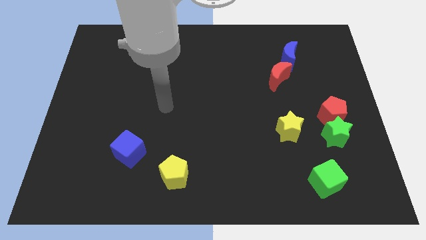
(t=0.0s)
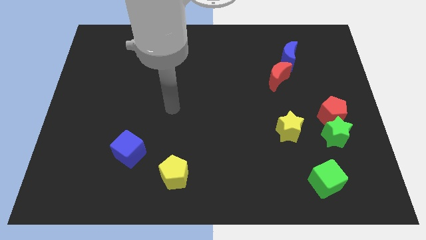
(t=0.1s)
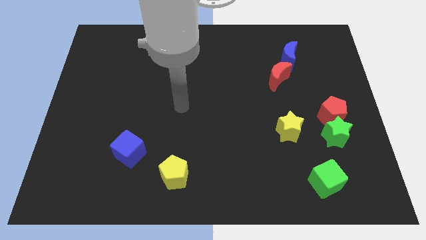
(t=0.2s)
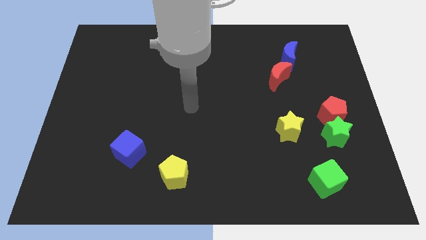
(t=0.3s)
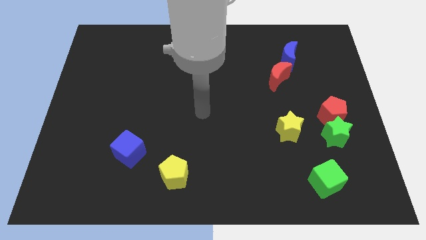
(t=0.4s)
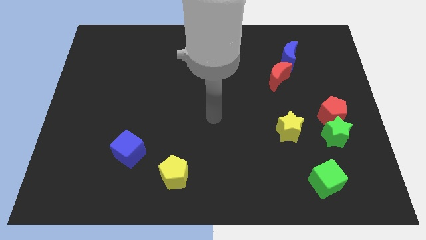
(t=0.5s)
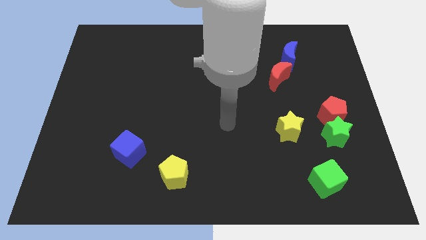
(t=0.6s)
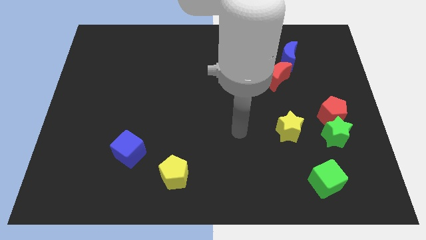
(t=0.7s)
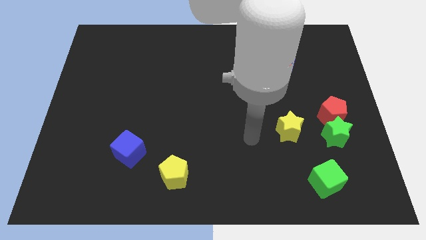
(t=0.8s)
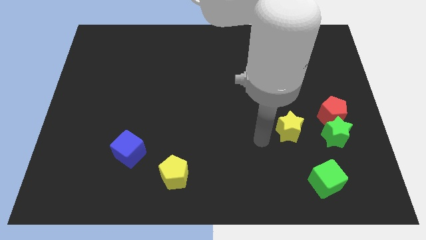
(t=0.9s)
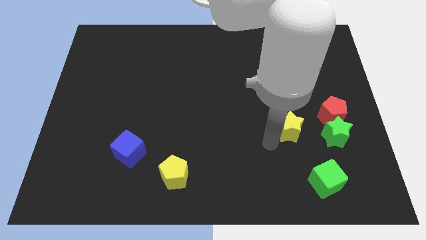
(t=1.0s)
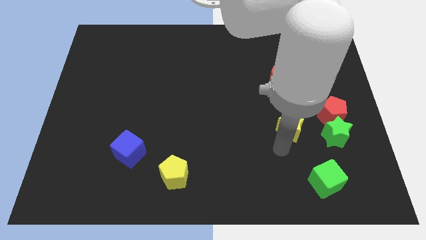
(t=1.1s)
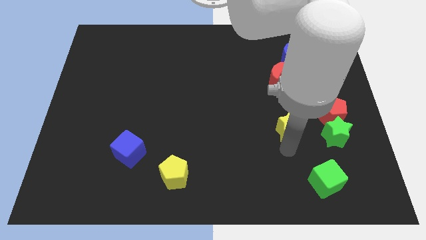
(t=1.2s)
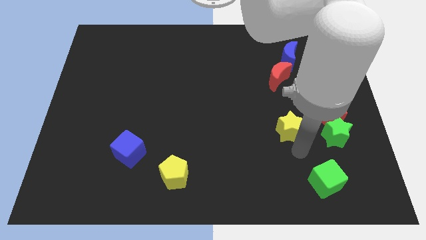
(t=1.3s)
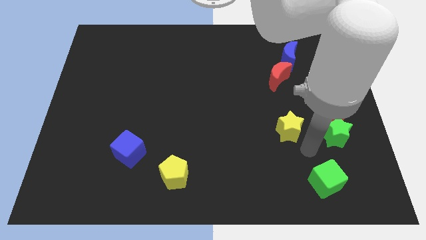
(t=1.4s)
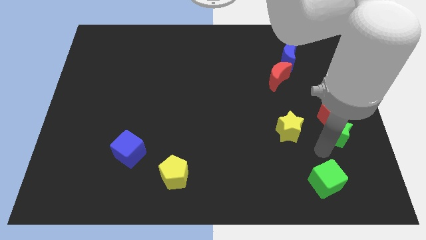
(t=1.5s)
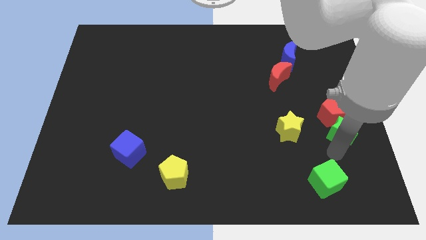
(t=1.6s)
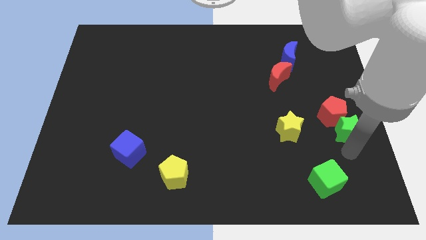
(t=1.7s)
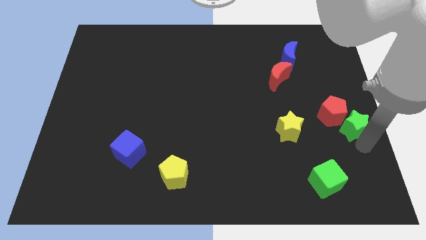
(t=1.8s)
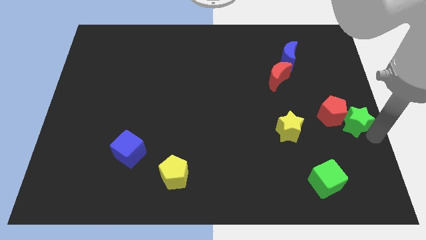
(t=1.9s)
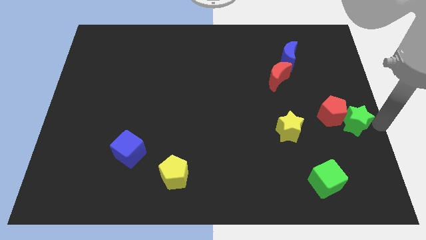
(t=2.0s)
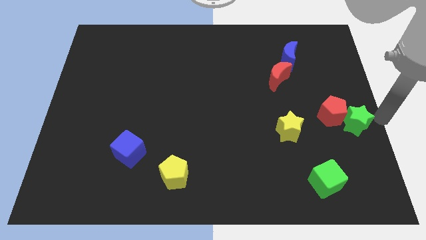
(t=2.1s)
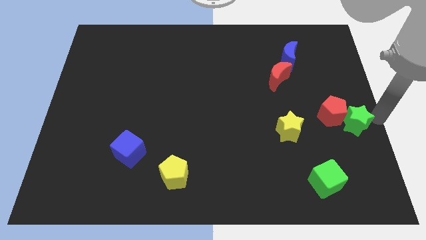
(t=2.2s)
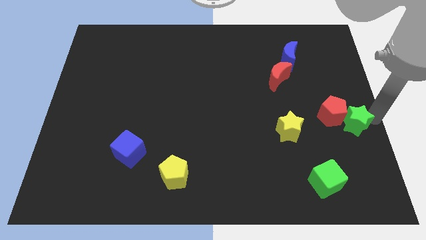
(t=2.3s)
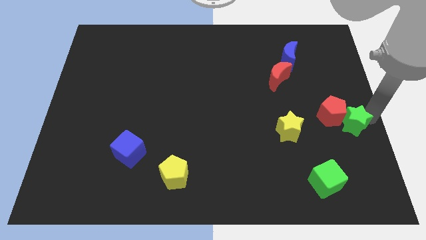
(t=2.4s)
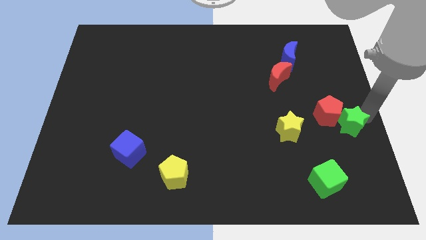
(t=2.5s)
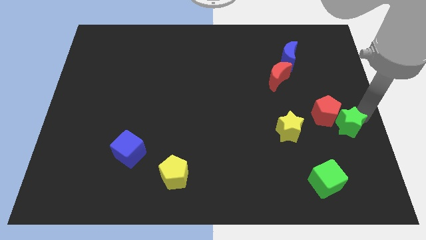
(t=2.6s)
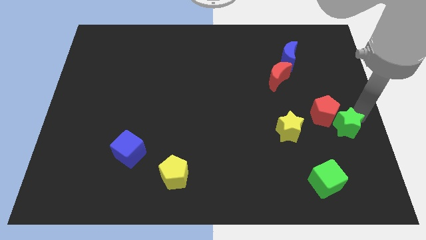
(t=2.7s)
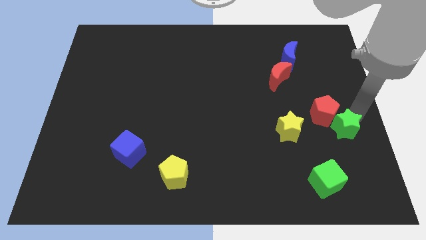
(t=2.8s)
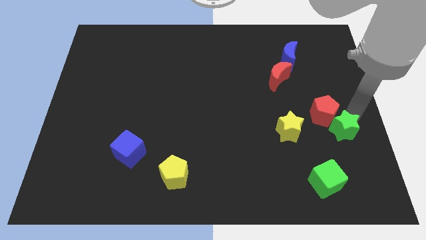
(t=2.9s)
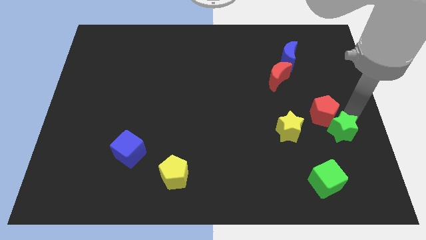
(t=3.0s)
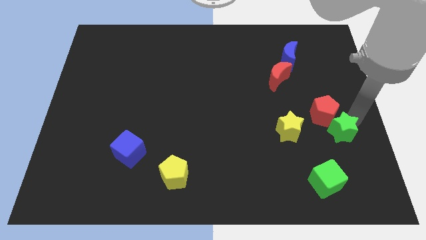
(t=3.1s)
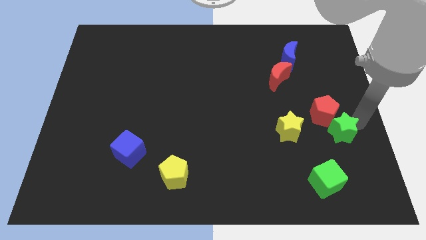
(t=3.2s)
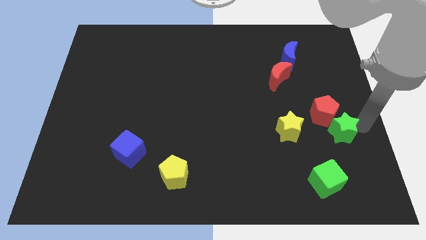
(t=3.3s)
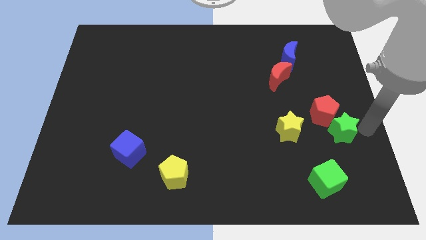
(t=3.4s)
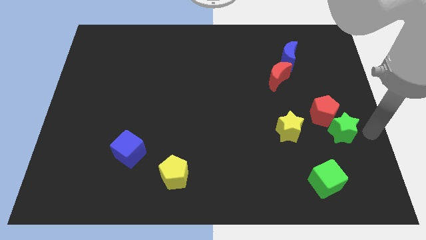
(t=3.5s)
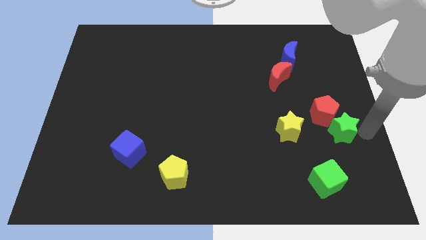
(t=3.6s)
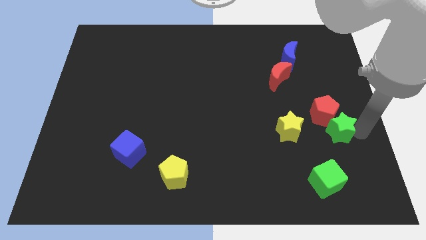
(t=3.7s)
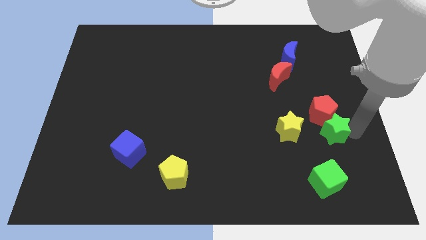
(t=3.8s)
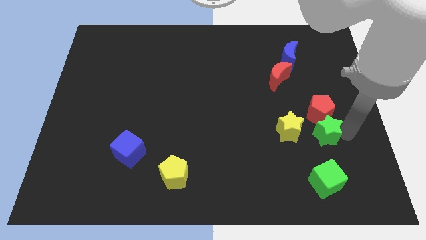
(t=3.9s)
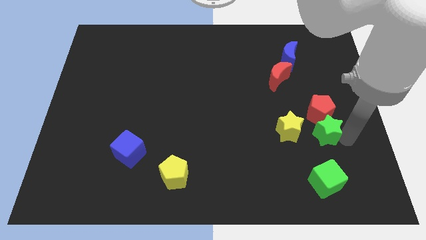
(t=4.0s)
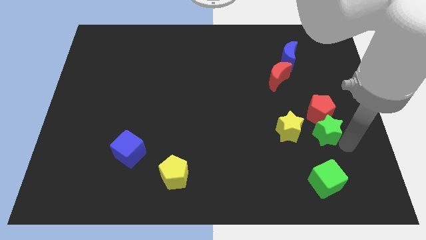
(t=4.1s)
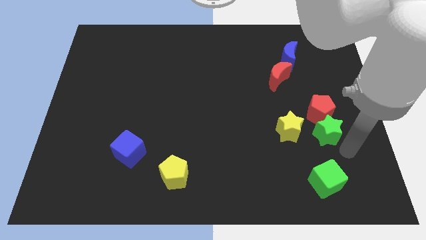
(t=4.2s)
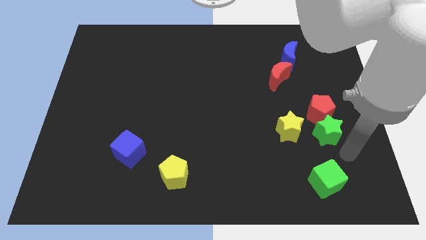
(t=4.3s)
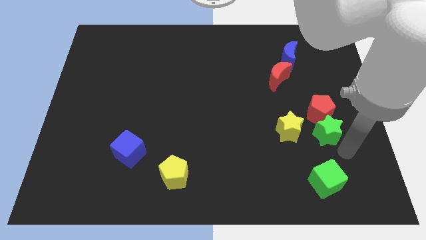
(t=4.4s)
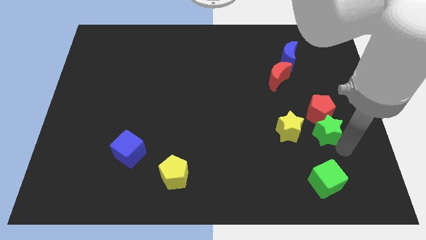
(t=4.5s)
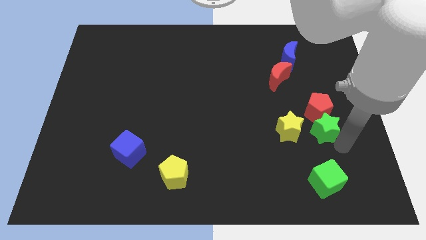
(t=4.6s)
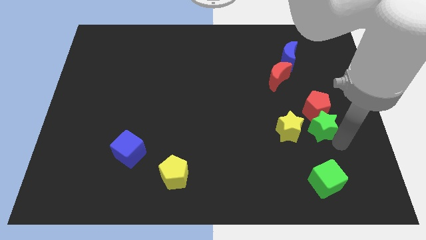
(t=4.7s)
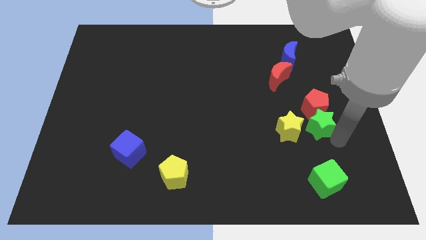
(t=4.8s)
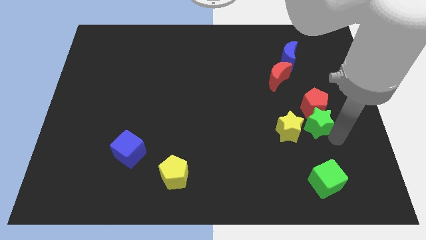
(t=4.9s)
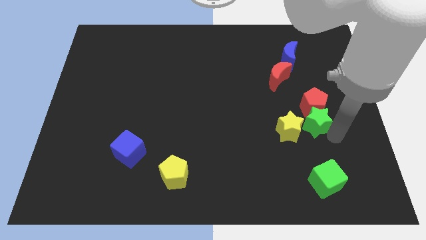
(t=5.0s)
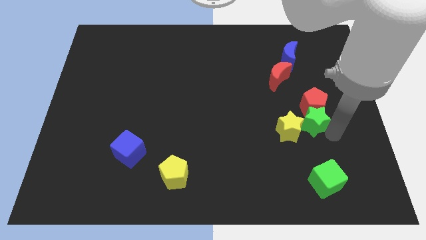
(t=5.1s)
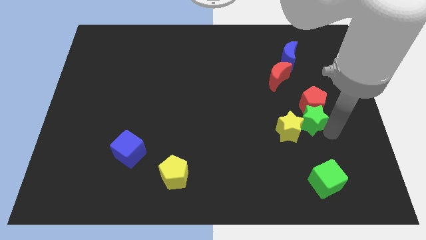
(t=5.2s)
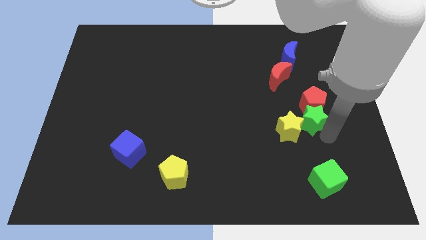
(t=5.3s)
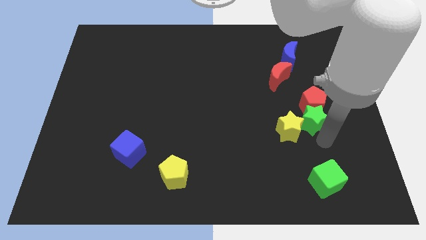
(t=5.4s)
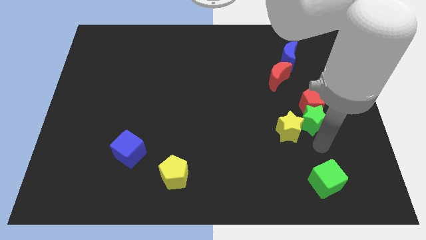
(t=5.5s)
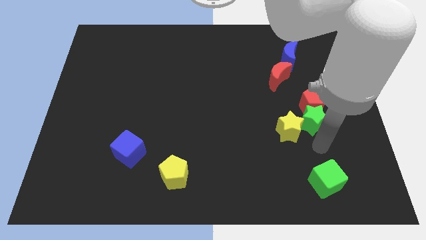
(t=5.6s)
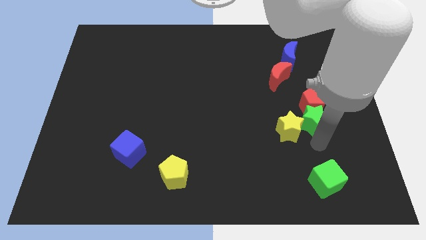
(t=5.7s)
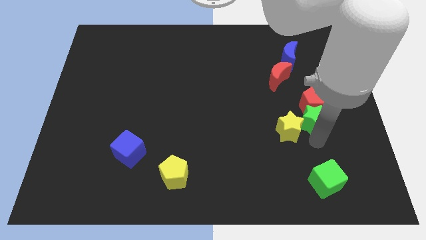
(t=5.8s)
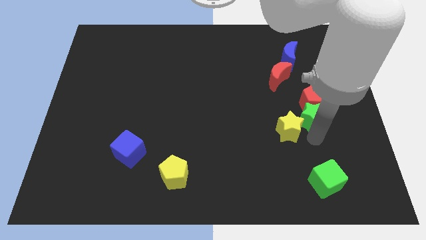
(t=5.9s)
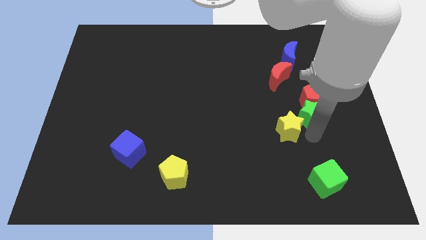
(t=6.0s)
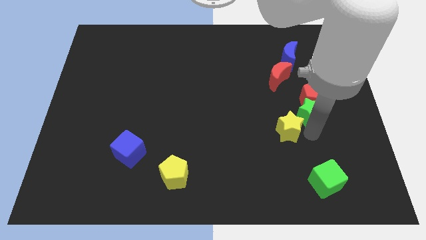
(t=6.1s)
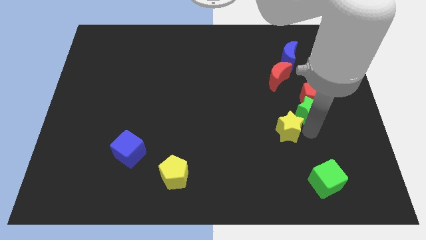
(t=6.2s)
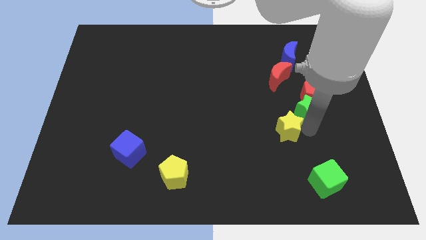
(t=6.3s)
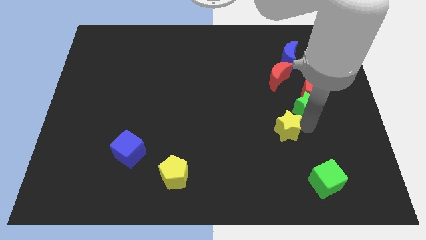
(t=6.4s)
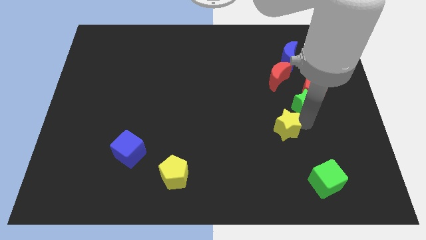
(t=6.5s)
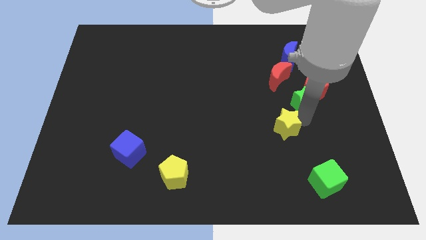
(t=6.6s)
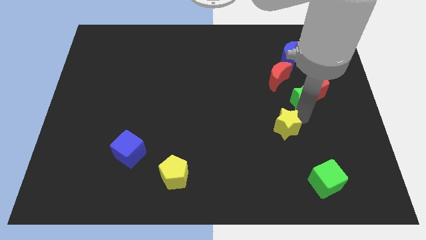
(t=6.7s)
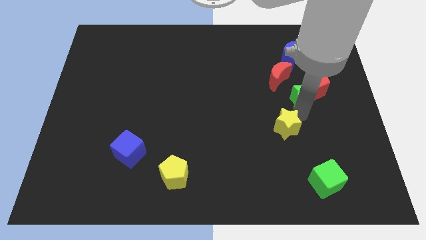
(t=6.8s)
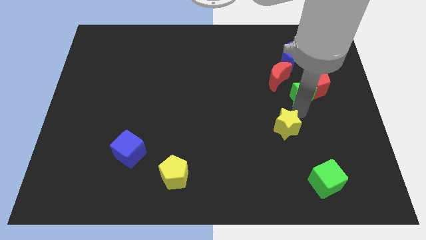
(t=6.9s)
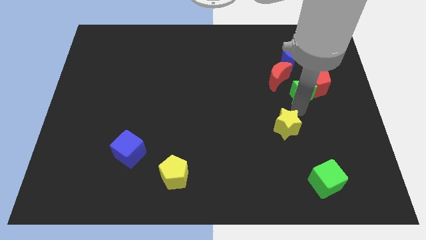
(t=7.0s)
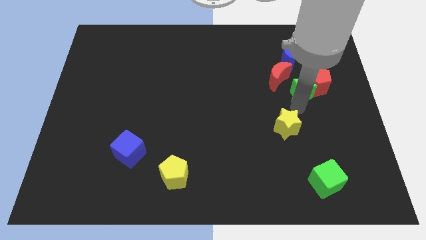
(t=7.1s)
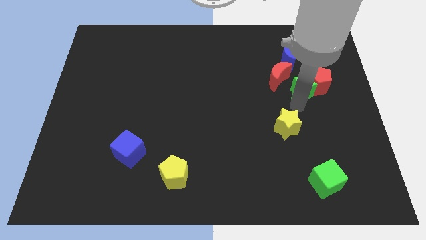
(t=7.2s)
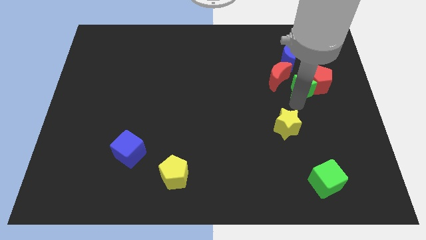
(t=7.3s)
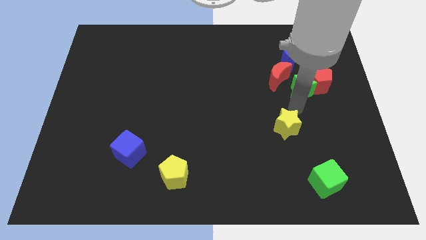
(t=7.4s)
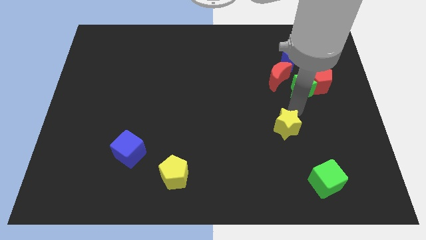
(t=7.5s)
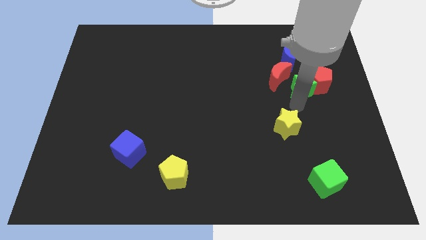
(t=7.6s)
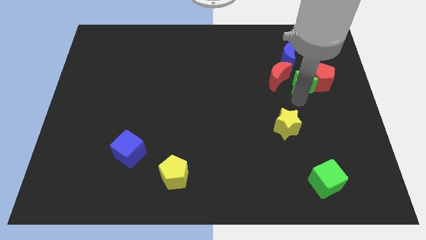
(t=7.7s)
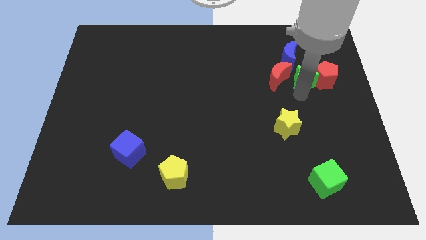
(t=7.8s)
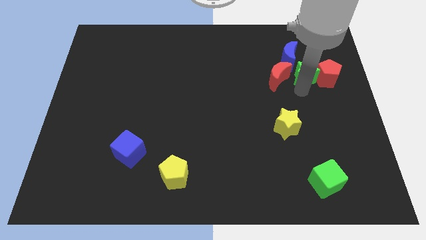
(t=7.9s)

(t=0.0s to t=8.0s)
slide the green star to the top right of the red moon
